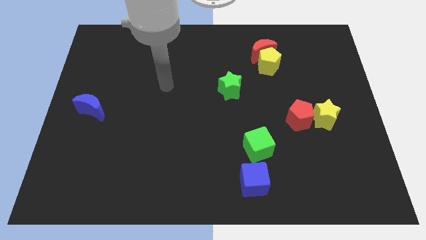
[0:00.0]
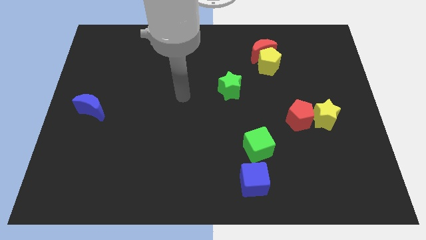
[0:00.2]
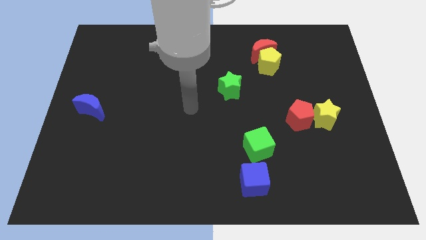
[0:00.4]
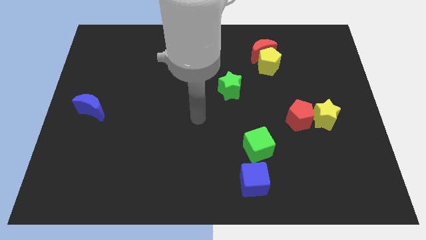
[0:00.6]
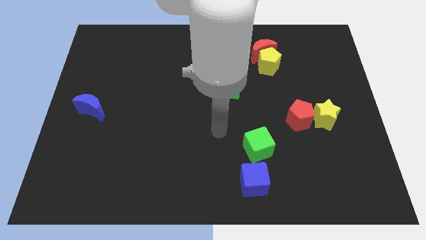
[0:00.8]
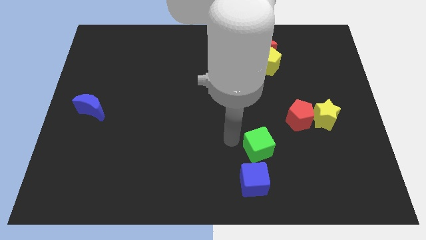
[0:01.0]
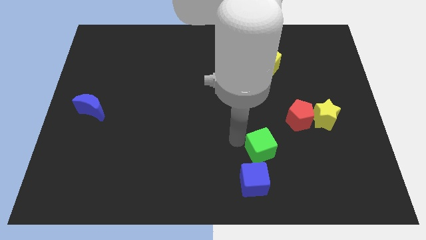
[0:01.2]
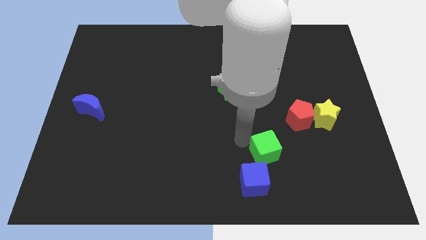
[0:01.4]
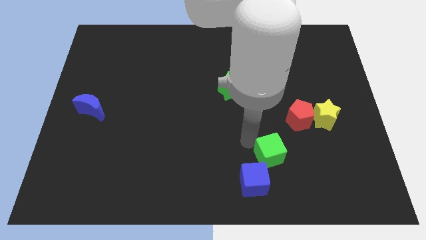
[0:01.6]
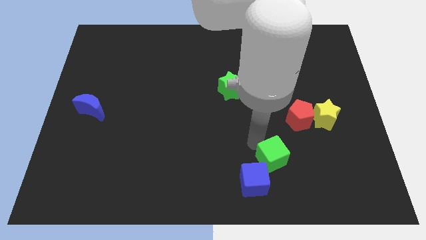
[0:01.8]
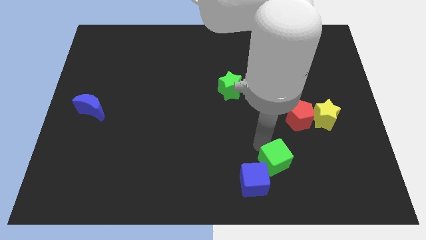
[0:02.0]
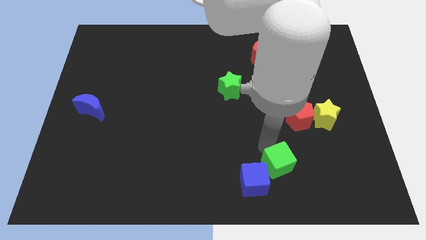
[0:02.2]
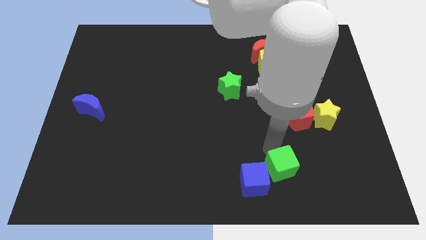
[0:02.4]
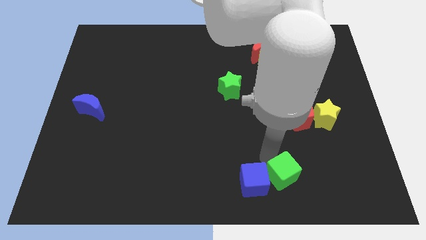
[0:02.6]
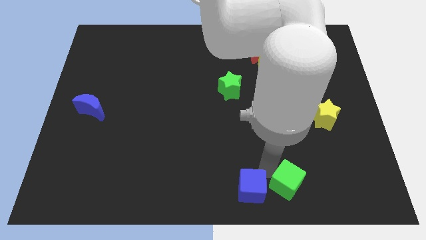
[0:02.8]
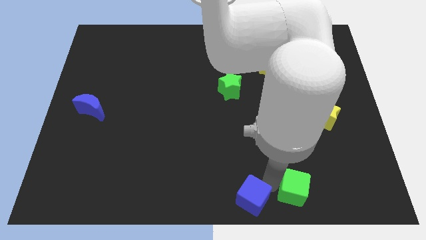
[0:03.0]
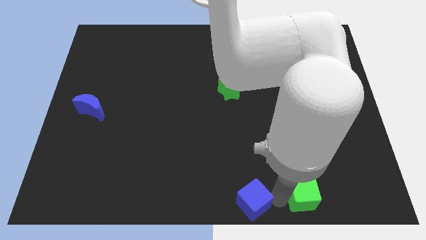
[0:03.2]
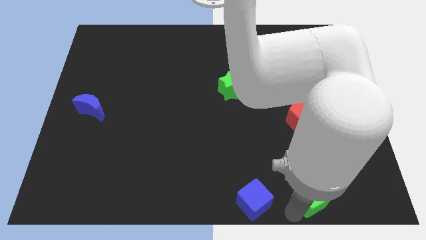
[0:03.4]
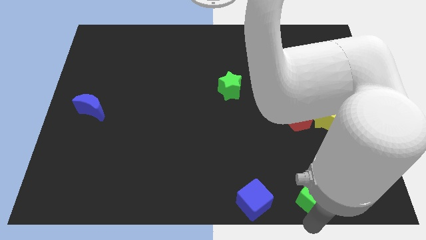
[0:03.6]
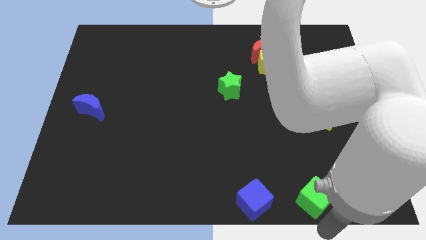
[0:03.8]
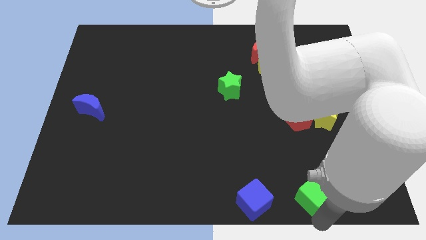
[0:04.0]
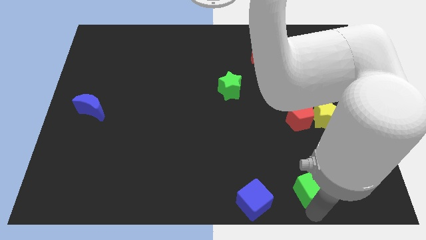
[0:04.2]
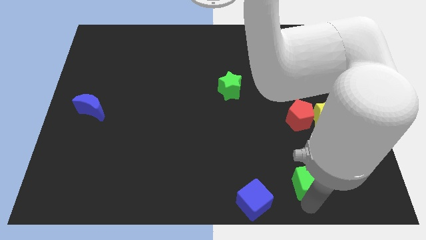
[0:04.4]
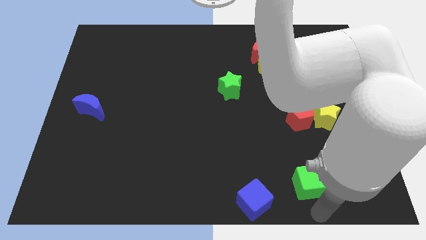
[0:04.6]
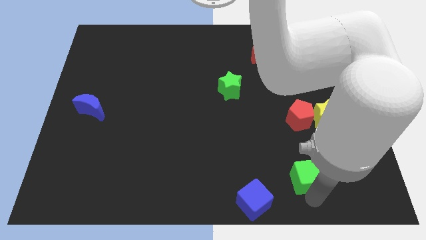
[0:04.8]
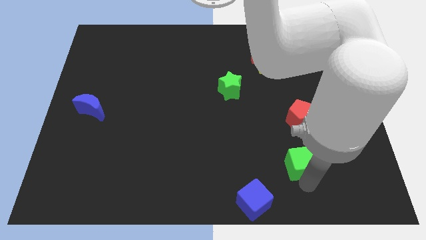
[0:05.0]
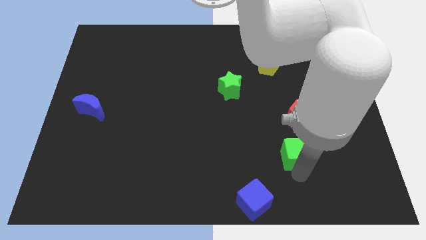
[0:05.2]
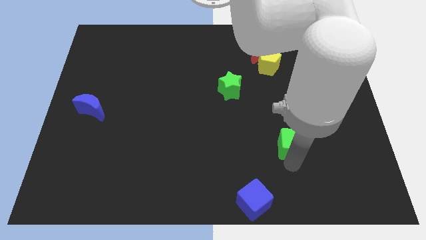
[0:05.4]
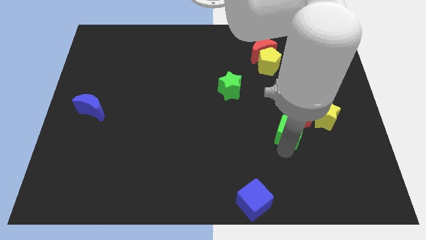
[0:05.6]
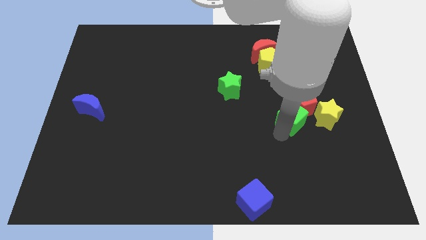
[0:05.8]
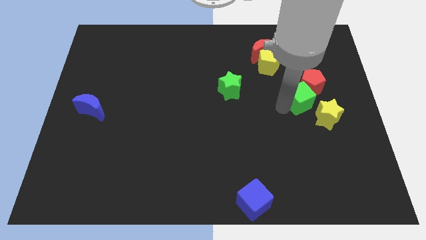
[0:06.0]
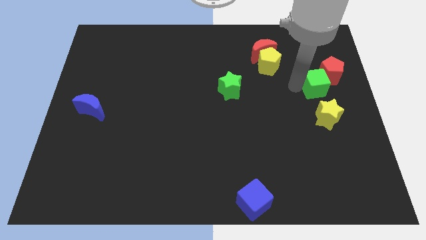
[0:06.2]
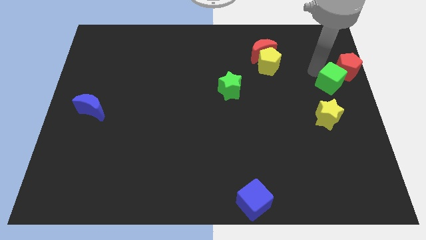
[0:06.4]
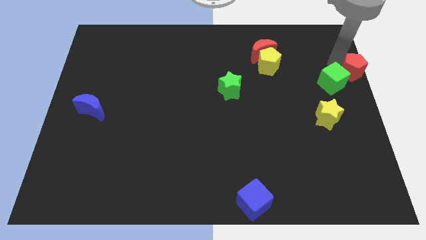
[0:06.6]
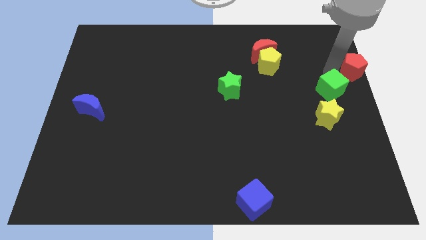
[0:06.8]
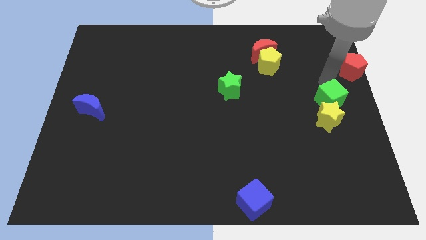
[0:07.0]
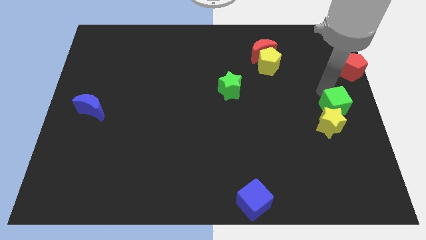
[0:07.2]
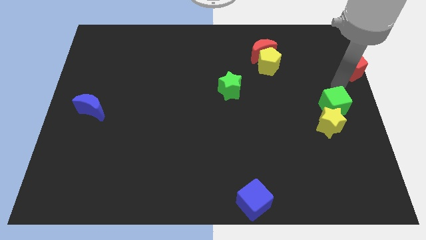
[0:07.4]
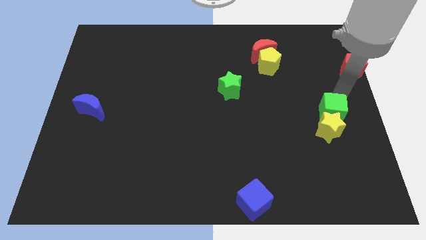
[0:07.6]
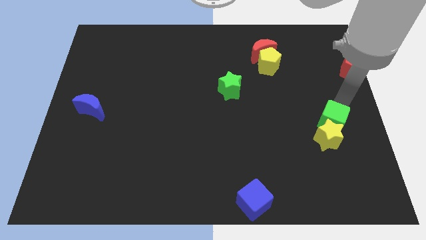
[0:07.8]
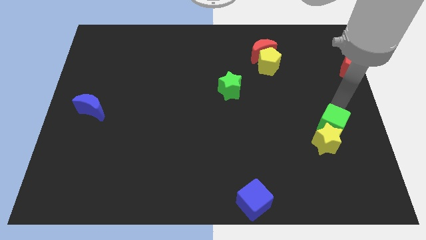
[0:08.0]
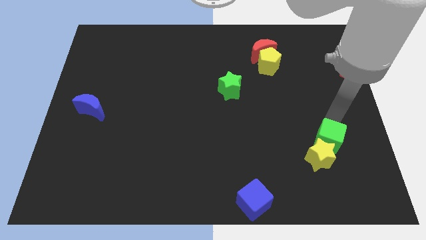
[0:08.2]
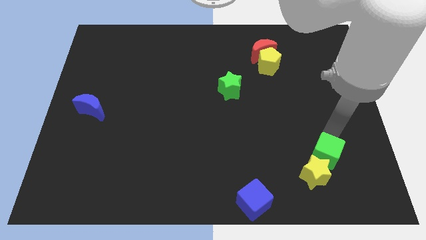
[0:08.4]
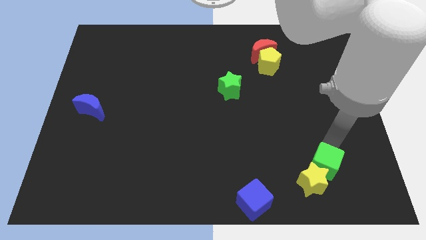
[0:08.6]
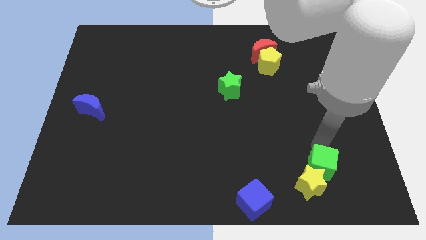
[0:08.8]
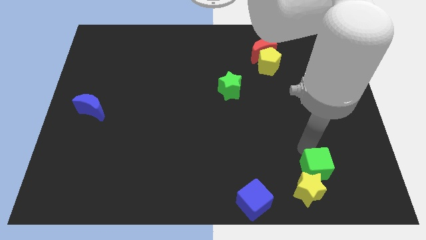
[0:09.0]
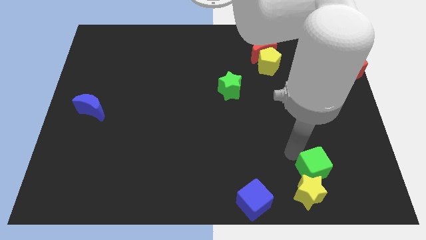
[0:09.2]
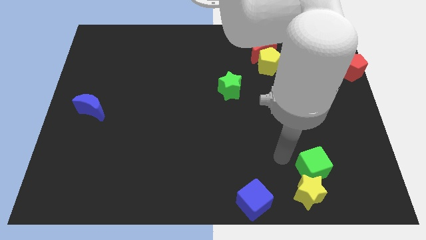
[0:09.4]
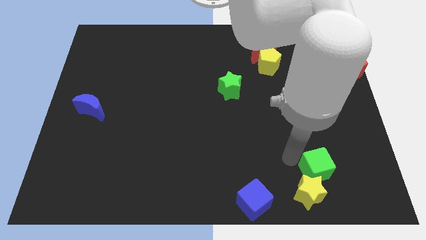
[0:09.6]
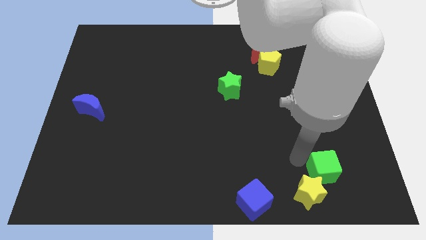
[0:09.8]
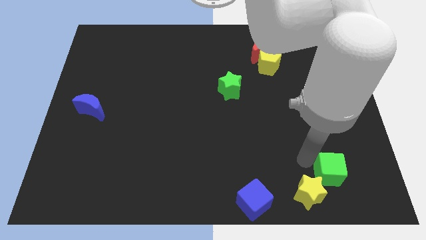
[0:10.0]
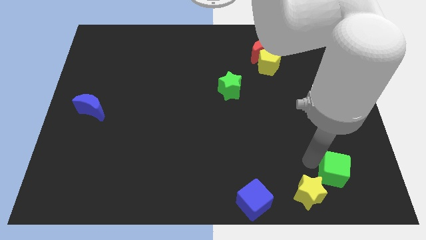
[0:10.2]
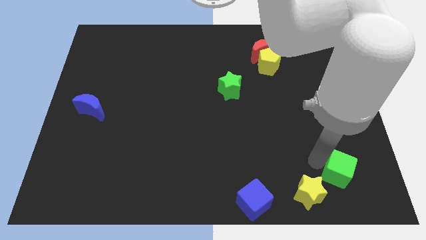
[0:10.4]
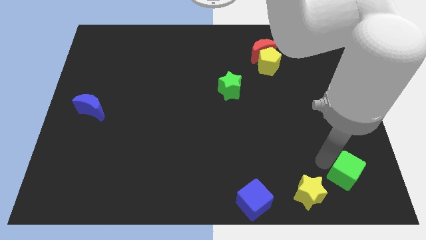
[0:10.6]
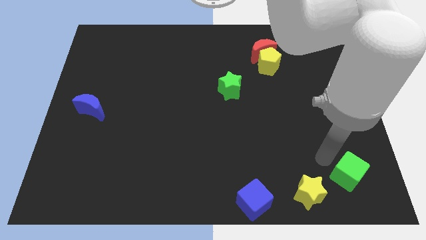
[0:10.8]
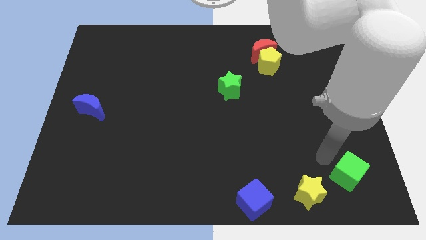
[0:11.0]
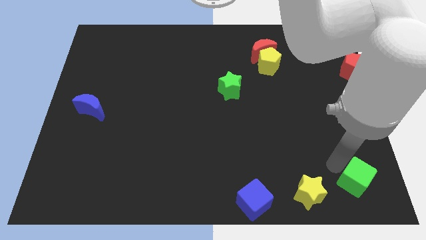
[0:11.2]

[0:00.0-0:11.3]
put the green cube to the bottom right

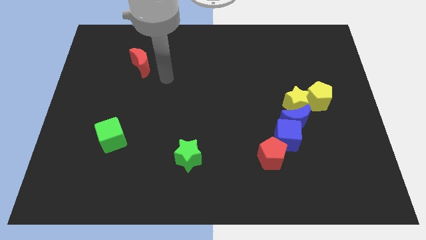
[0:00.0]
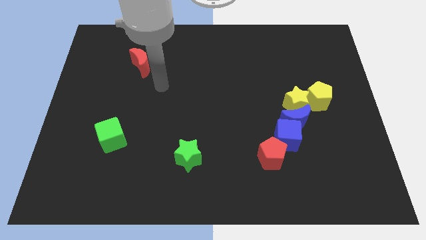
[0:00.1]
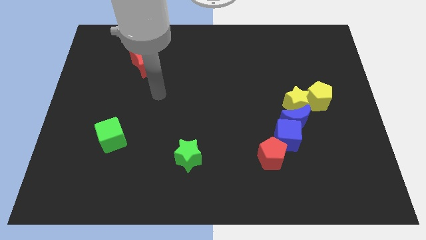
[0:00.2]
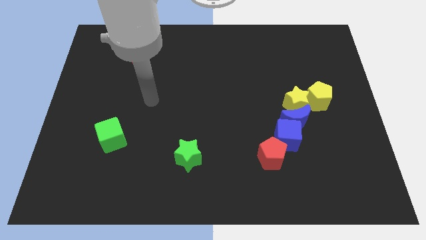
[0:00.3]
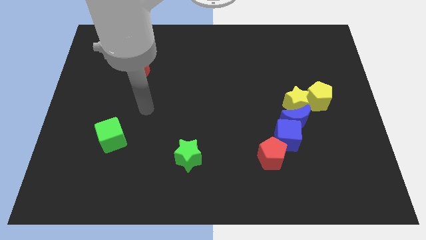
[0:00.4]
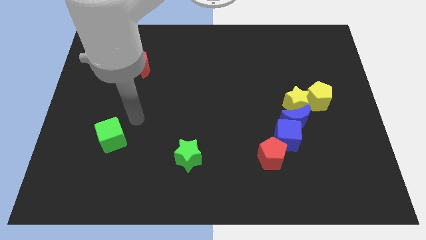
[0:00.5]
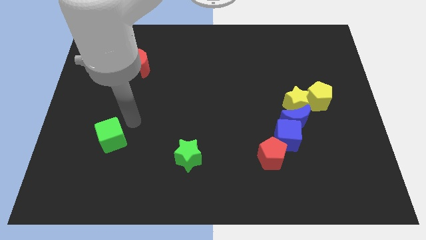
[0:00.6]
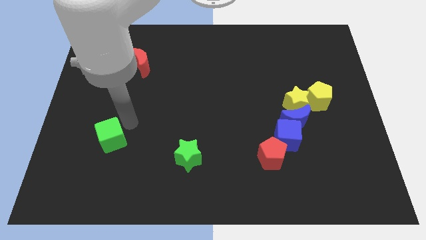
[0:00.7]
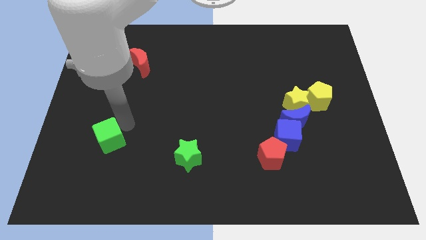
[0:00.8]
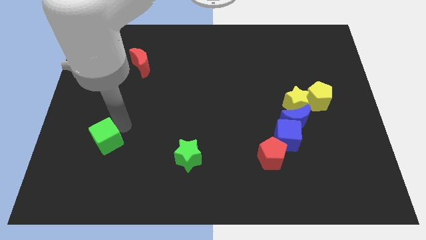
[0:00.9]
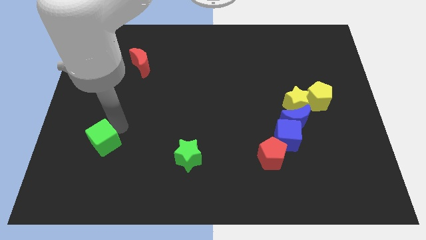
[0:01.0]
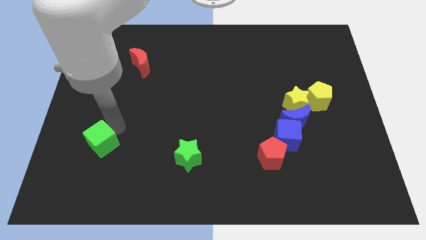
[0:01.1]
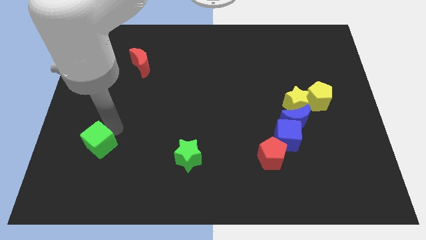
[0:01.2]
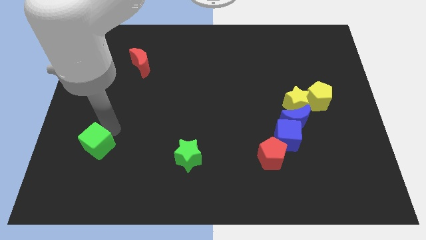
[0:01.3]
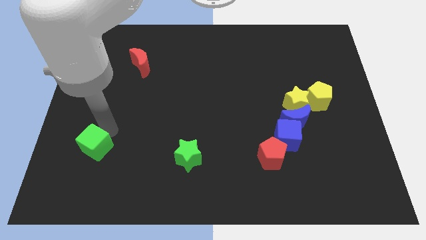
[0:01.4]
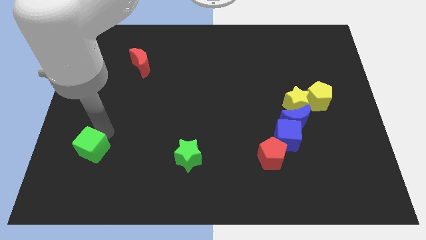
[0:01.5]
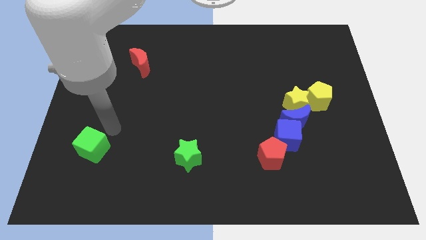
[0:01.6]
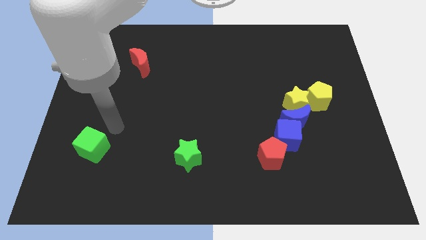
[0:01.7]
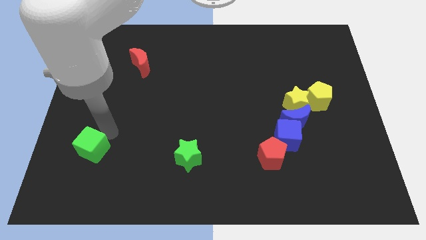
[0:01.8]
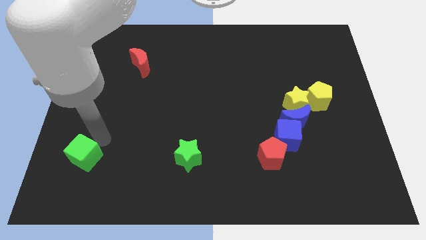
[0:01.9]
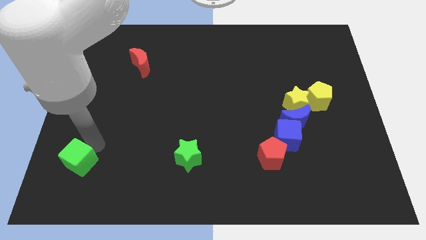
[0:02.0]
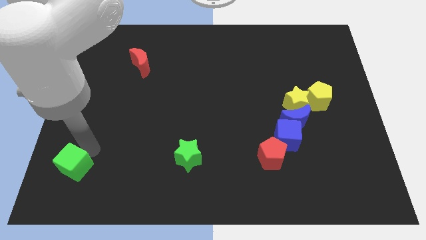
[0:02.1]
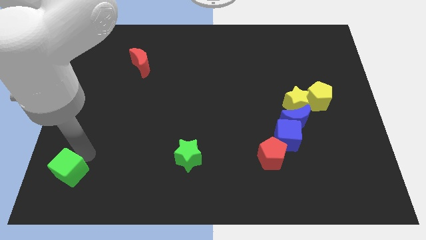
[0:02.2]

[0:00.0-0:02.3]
push the green cube to the bottom left of the board
